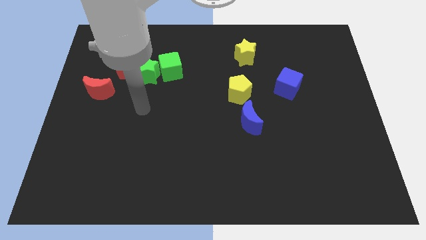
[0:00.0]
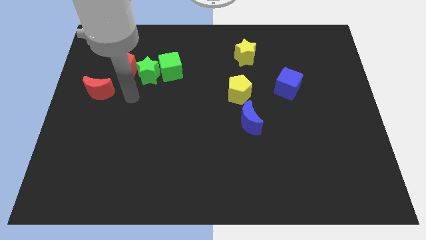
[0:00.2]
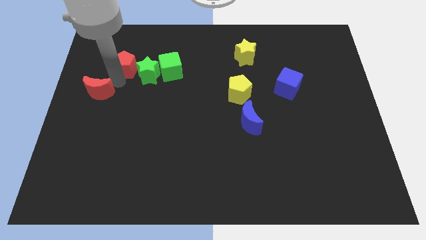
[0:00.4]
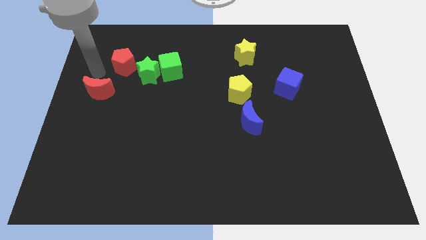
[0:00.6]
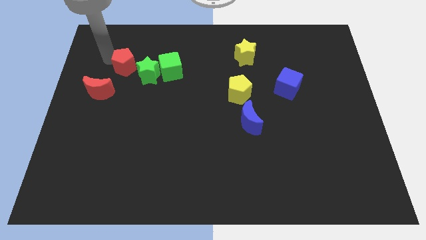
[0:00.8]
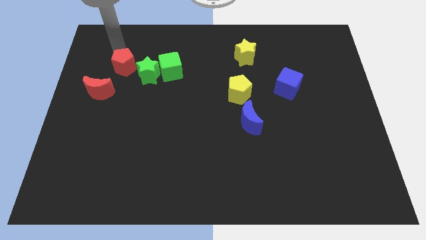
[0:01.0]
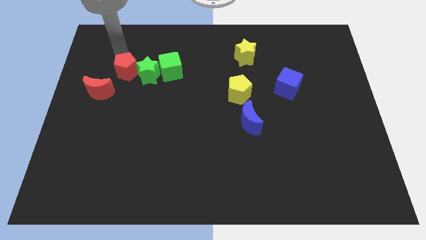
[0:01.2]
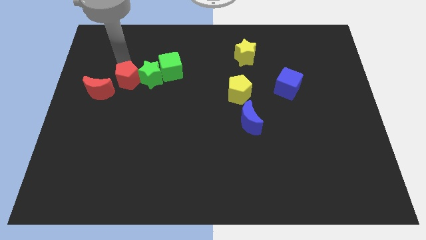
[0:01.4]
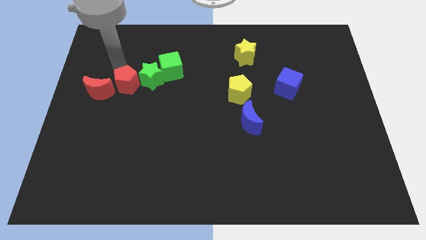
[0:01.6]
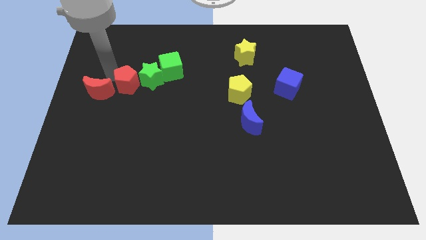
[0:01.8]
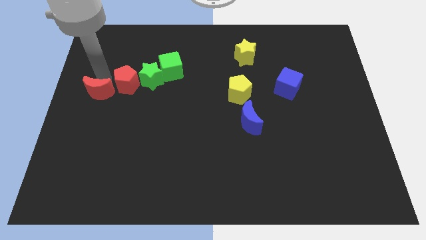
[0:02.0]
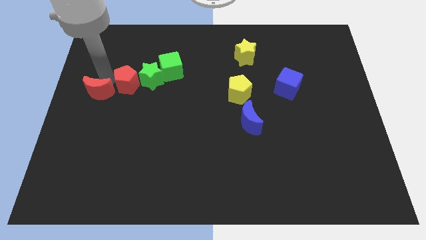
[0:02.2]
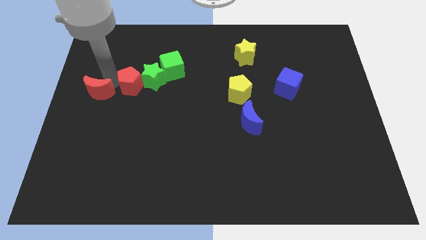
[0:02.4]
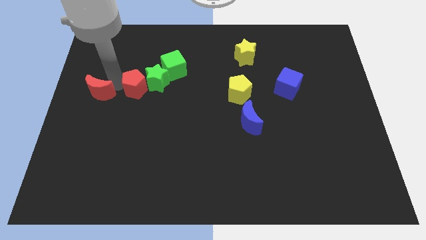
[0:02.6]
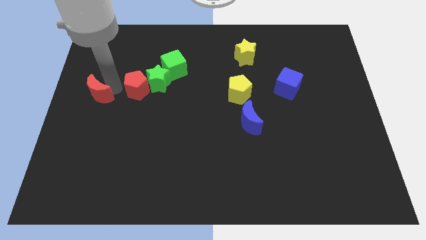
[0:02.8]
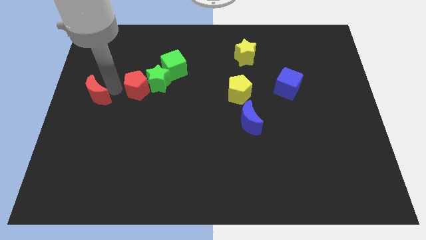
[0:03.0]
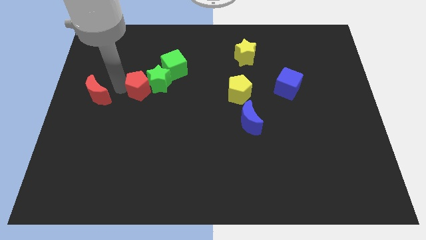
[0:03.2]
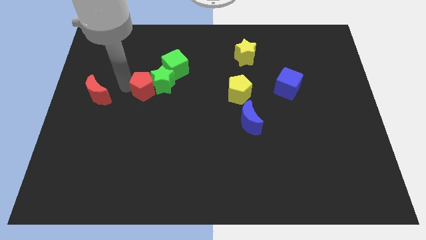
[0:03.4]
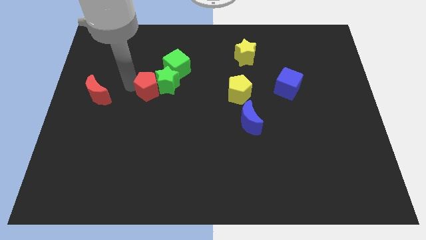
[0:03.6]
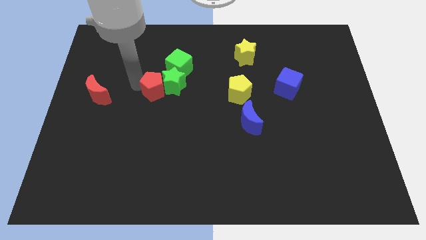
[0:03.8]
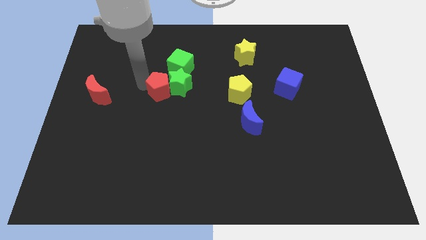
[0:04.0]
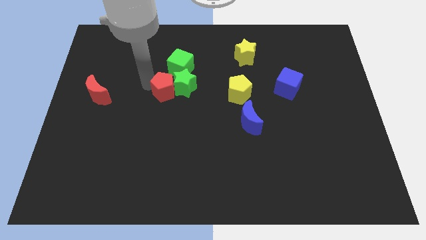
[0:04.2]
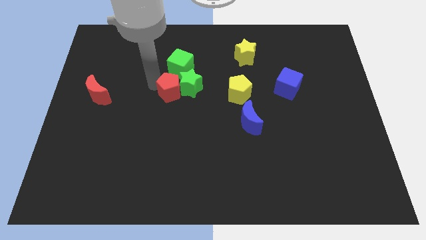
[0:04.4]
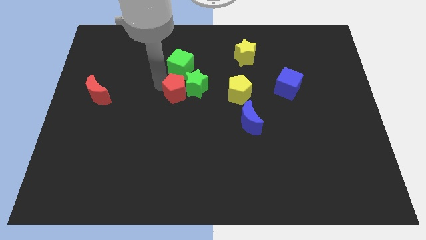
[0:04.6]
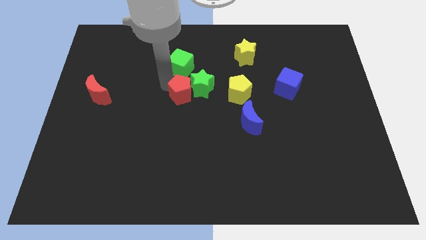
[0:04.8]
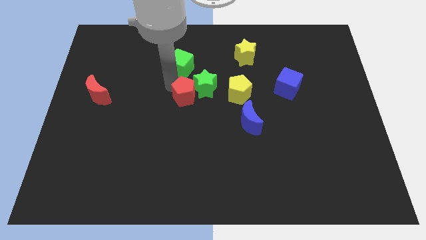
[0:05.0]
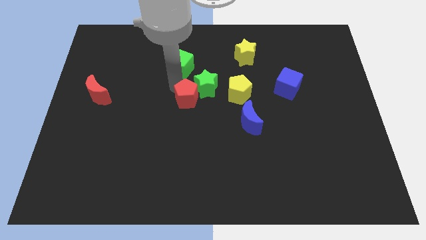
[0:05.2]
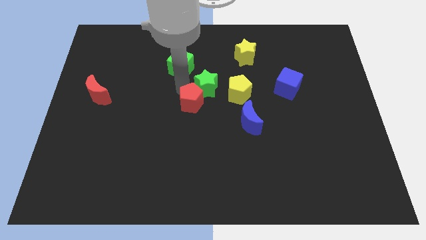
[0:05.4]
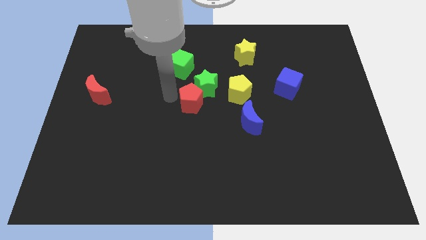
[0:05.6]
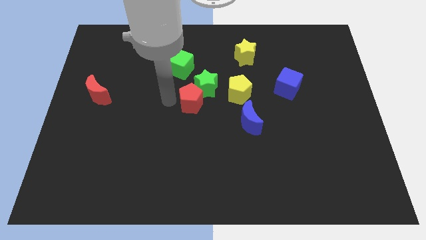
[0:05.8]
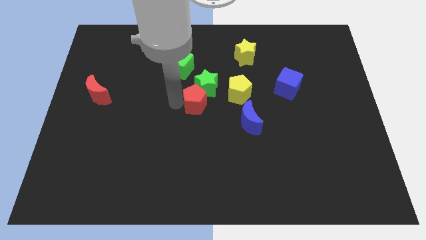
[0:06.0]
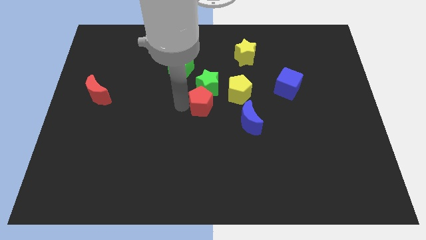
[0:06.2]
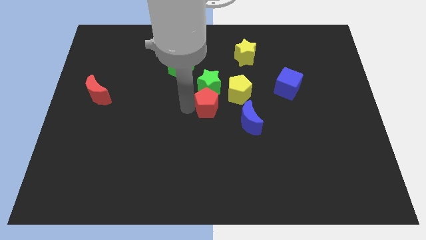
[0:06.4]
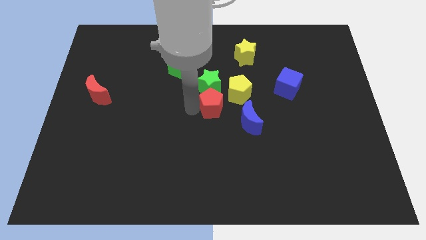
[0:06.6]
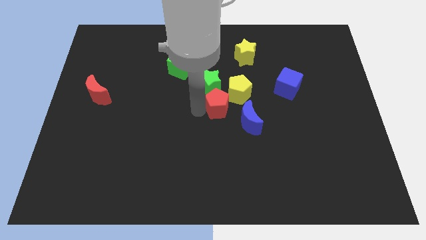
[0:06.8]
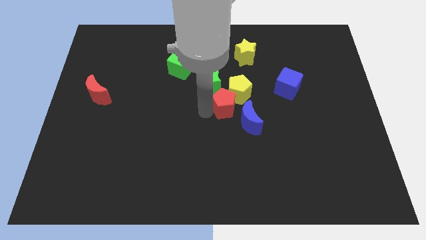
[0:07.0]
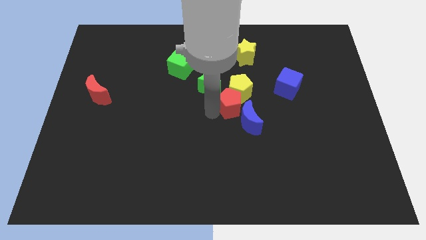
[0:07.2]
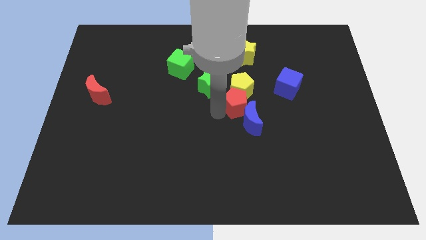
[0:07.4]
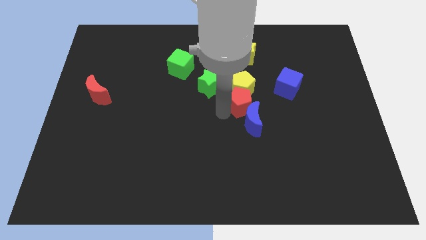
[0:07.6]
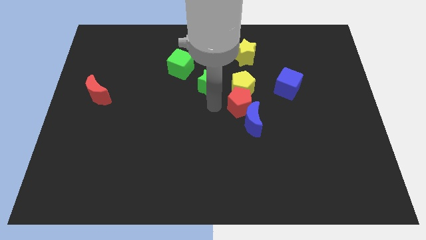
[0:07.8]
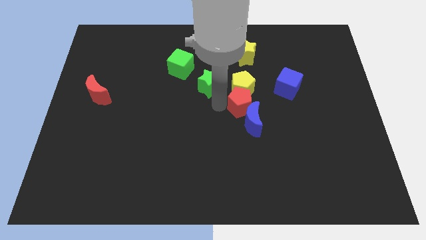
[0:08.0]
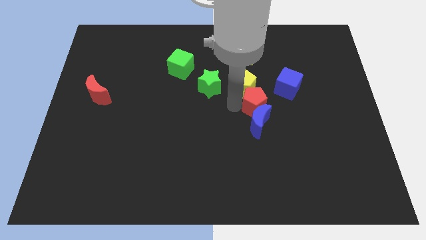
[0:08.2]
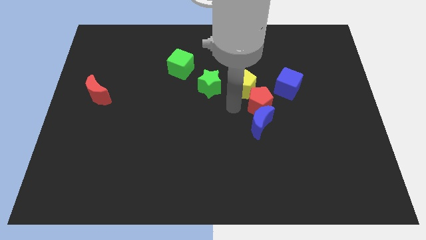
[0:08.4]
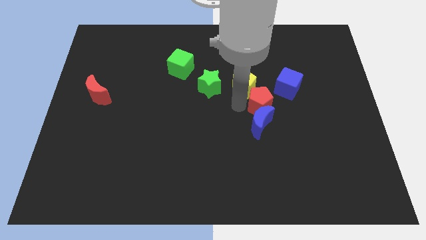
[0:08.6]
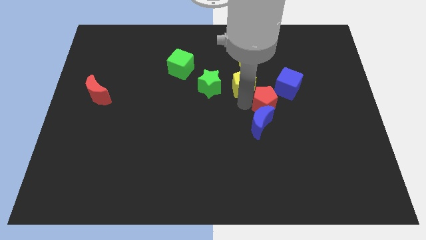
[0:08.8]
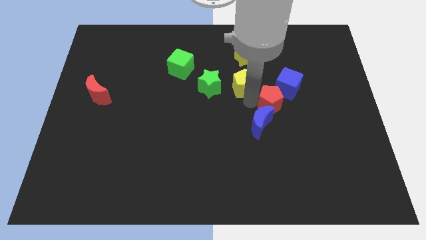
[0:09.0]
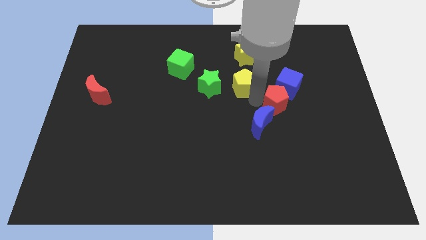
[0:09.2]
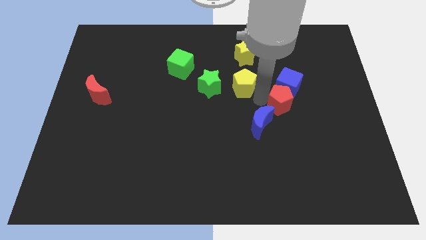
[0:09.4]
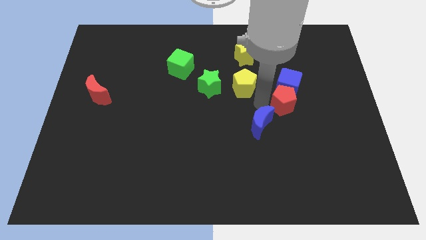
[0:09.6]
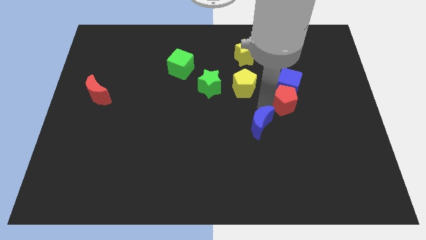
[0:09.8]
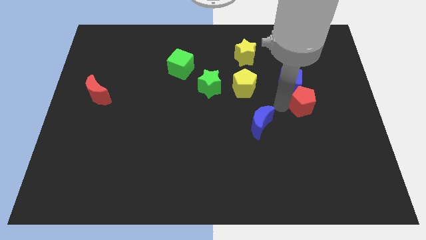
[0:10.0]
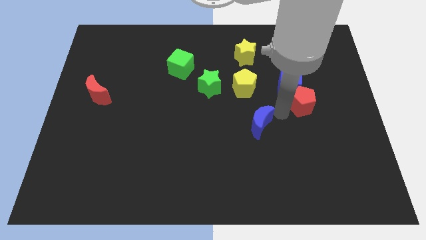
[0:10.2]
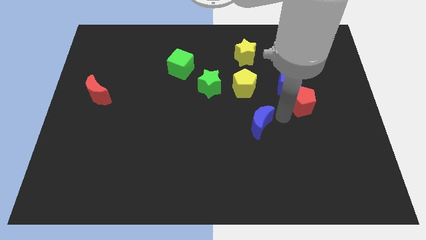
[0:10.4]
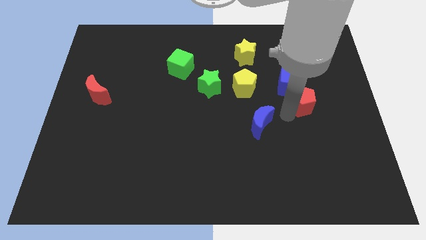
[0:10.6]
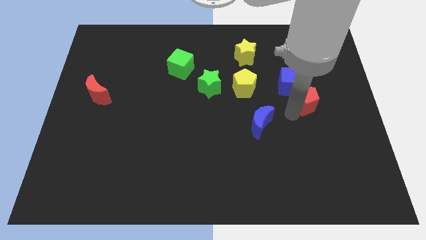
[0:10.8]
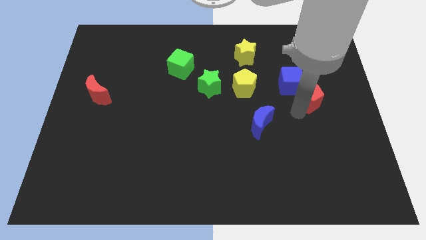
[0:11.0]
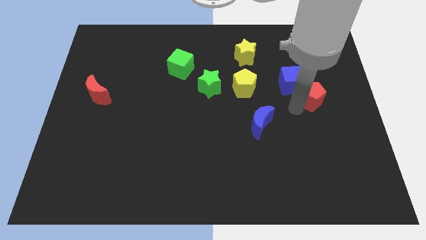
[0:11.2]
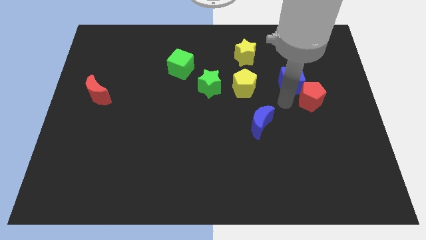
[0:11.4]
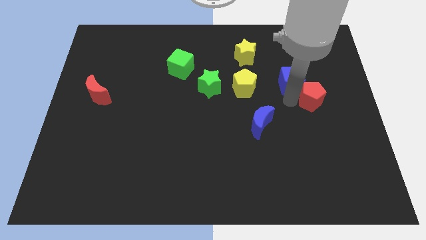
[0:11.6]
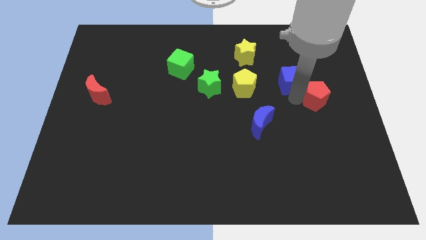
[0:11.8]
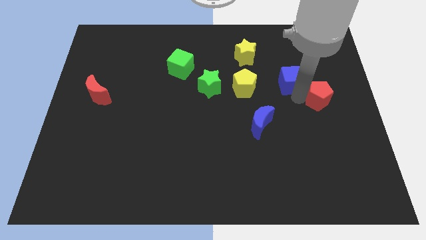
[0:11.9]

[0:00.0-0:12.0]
push the red pentagon to the center right

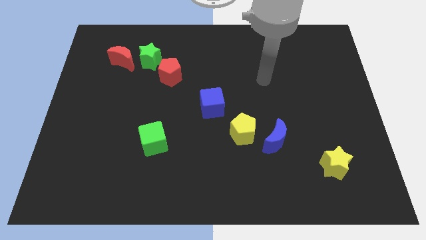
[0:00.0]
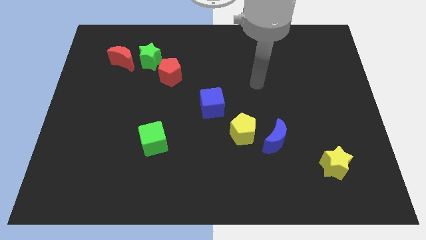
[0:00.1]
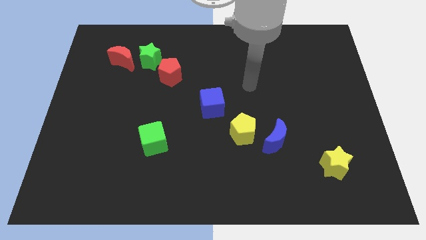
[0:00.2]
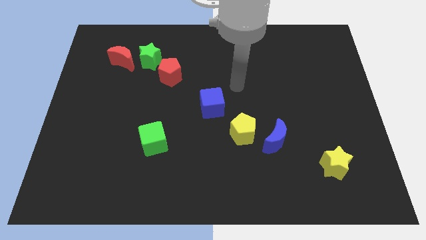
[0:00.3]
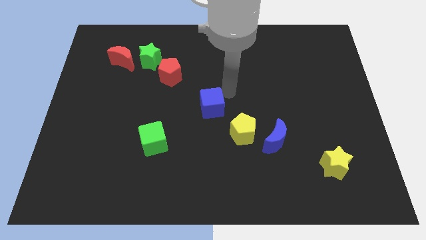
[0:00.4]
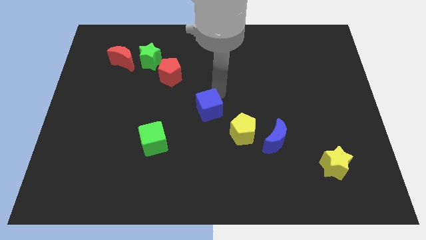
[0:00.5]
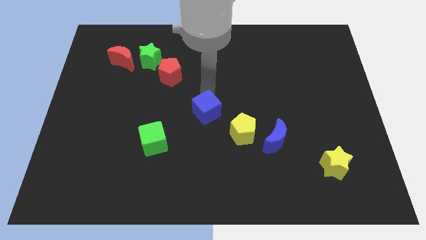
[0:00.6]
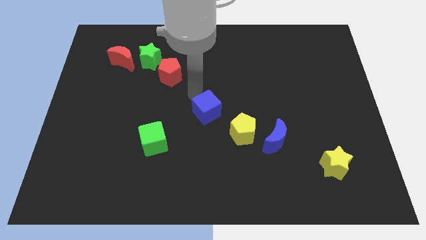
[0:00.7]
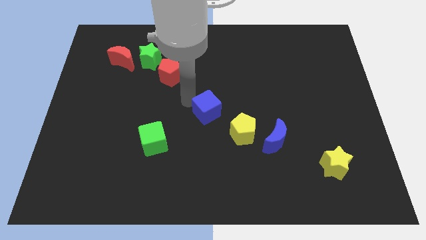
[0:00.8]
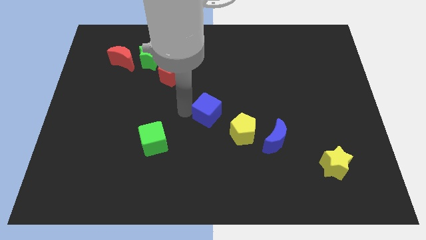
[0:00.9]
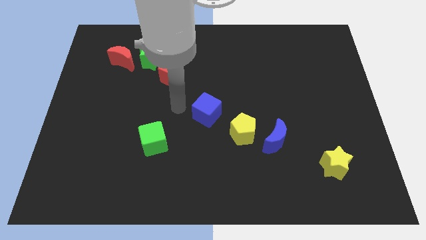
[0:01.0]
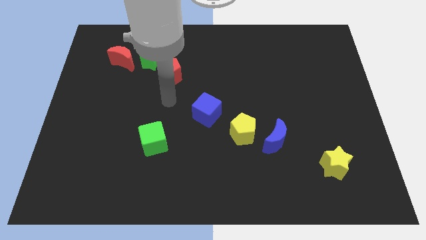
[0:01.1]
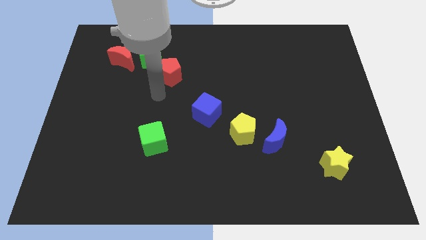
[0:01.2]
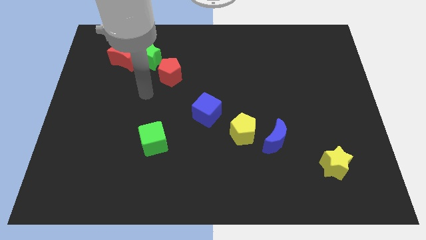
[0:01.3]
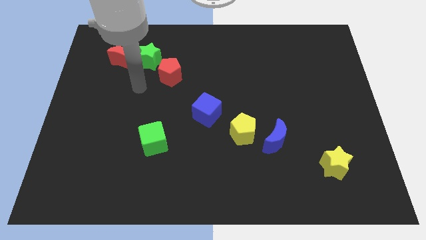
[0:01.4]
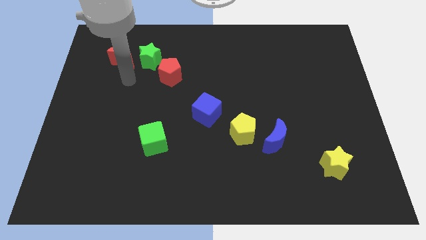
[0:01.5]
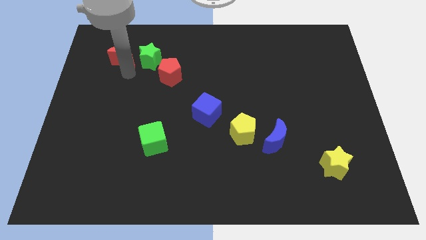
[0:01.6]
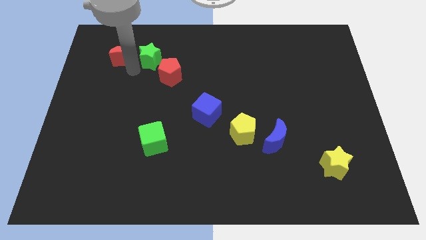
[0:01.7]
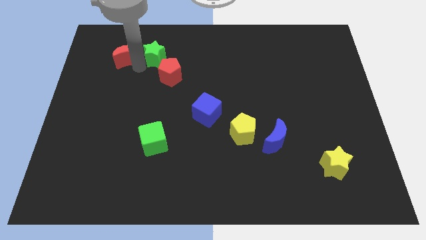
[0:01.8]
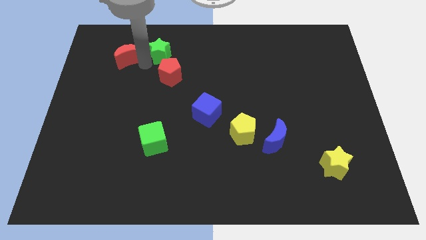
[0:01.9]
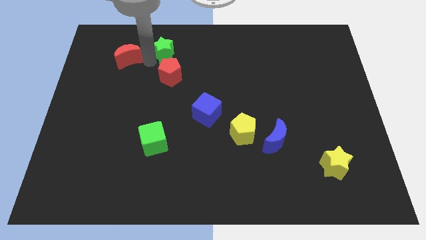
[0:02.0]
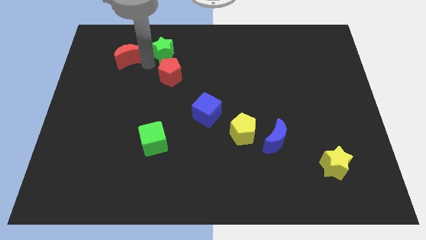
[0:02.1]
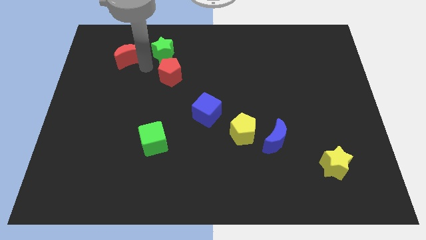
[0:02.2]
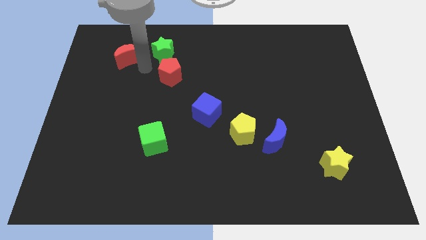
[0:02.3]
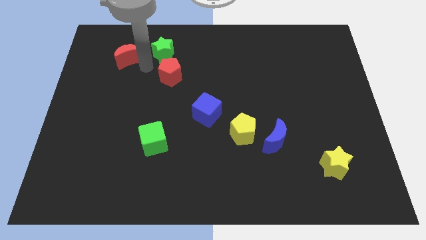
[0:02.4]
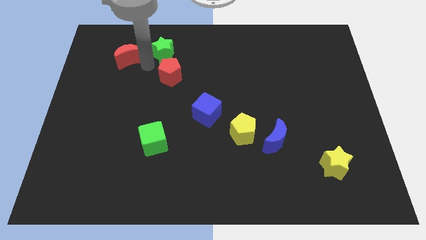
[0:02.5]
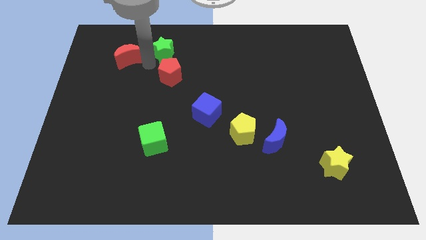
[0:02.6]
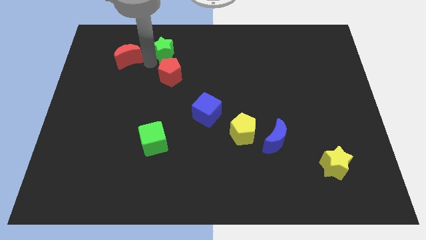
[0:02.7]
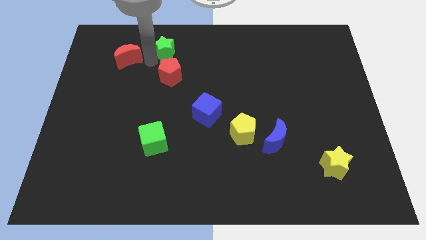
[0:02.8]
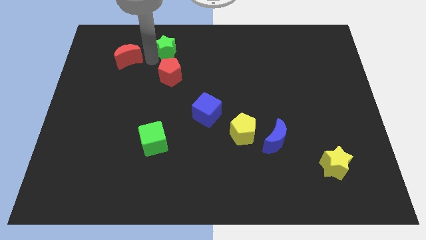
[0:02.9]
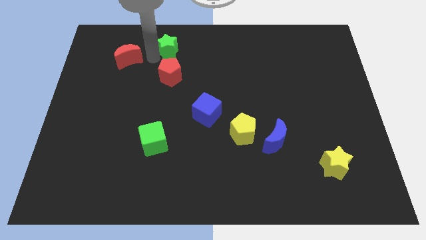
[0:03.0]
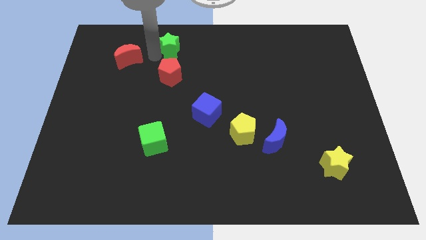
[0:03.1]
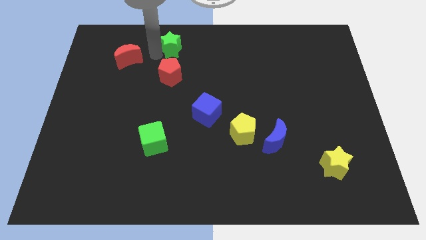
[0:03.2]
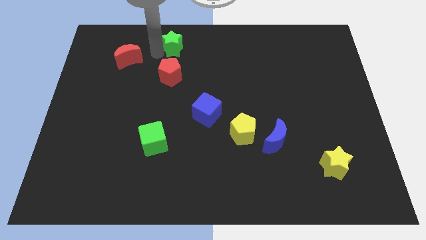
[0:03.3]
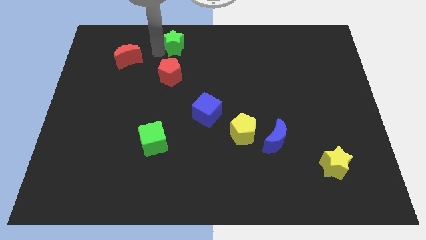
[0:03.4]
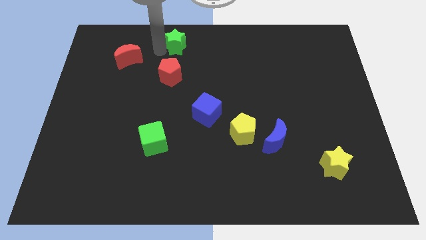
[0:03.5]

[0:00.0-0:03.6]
slide the green star to the towards your base
